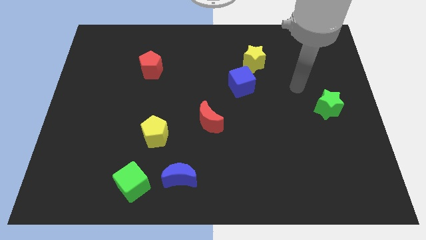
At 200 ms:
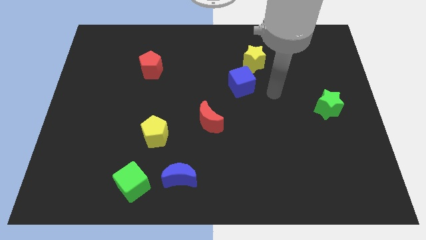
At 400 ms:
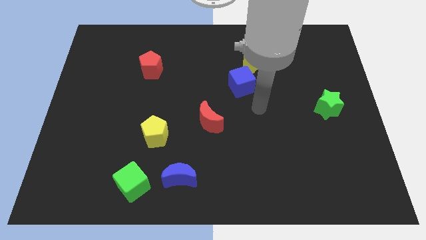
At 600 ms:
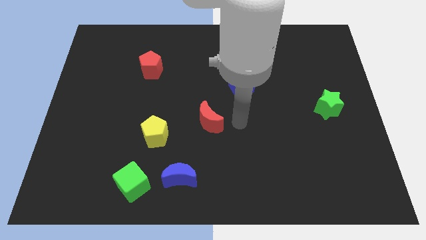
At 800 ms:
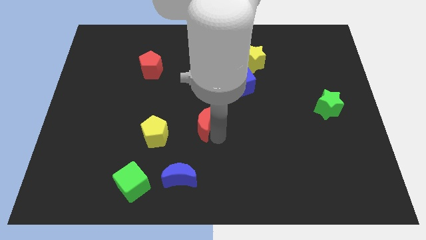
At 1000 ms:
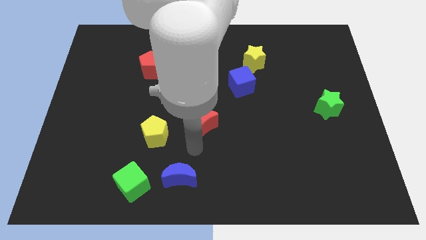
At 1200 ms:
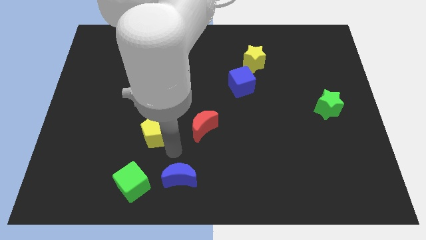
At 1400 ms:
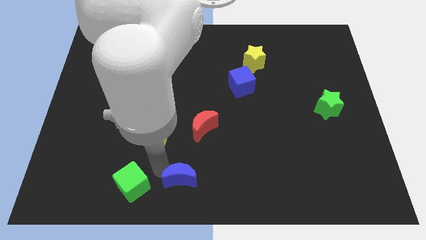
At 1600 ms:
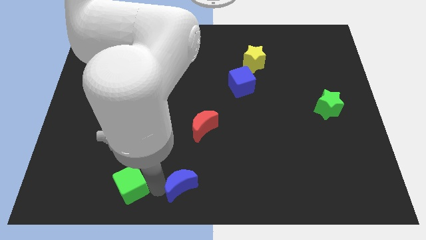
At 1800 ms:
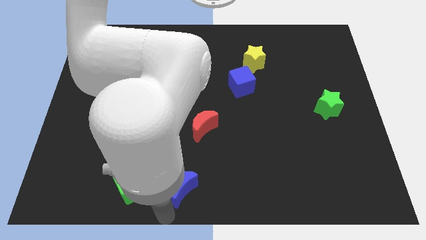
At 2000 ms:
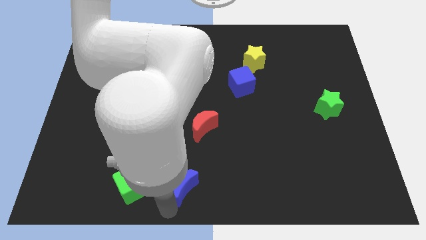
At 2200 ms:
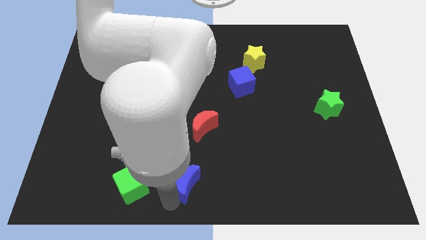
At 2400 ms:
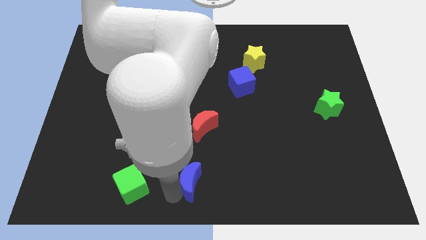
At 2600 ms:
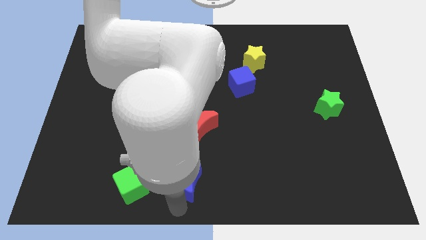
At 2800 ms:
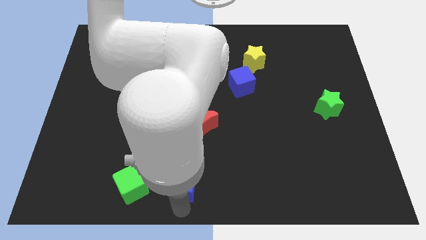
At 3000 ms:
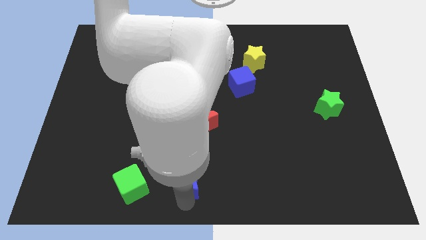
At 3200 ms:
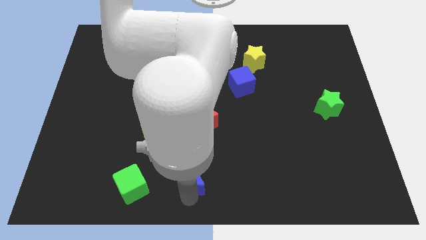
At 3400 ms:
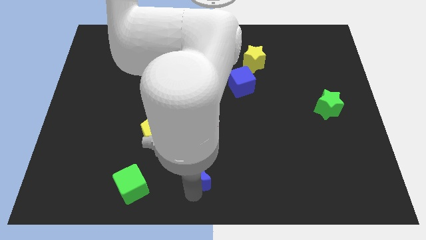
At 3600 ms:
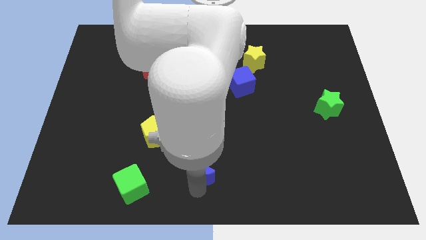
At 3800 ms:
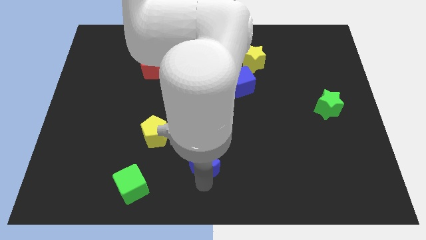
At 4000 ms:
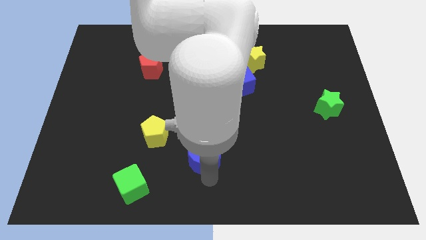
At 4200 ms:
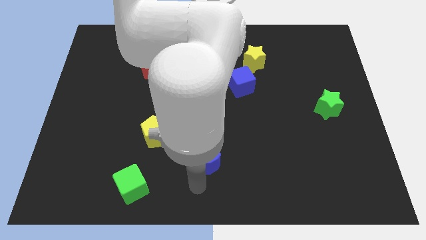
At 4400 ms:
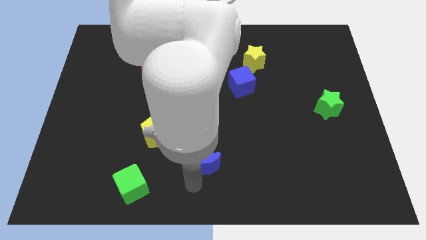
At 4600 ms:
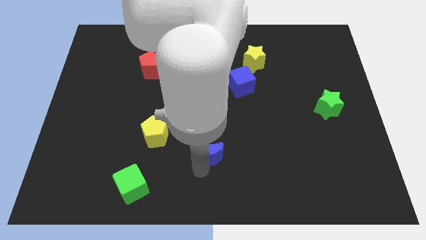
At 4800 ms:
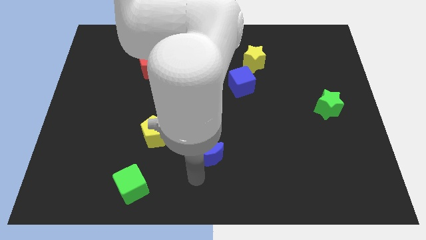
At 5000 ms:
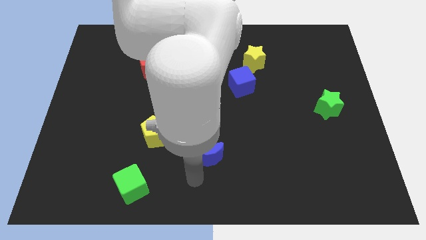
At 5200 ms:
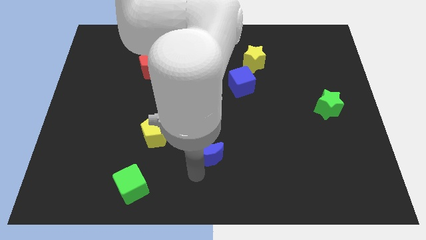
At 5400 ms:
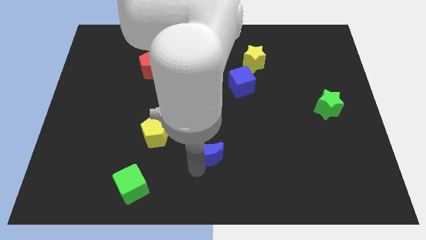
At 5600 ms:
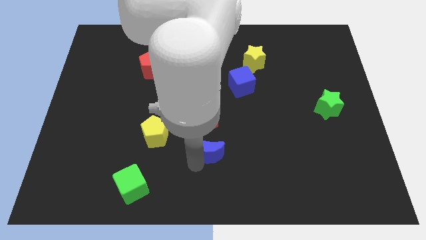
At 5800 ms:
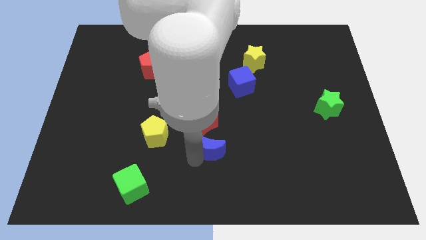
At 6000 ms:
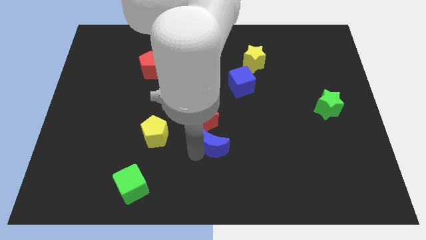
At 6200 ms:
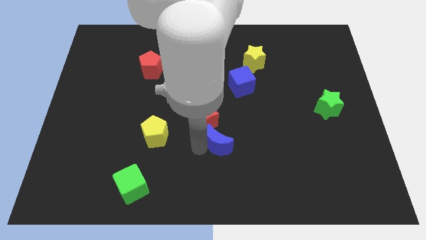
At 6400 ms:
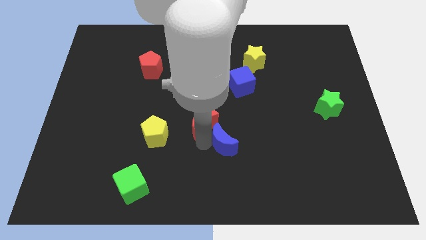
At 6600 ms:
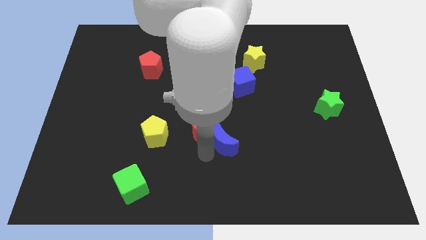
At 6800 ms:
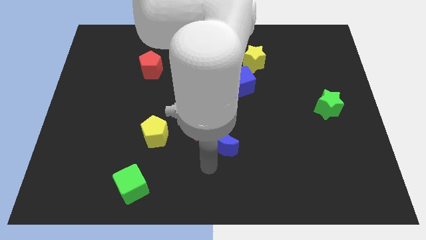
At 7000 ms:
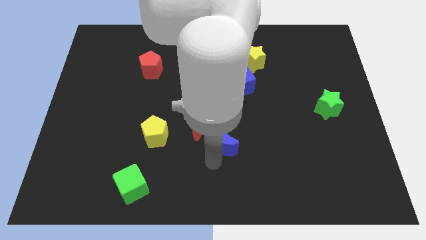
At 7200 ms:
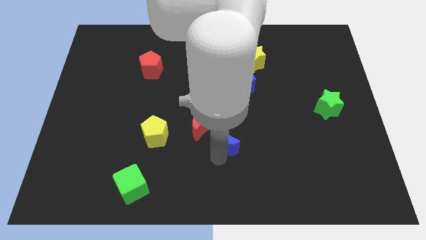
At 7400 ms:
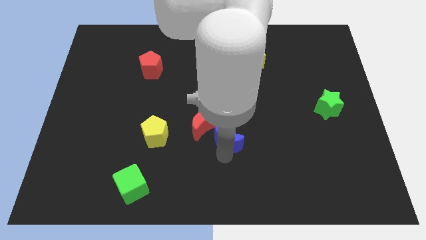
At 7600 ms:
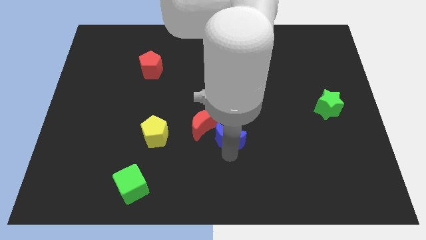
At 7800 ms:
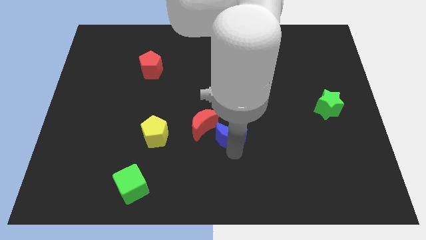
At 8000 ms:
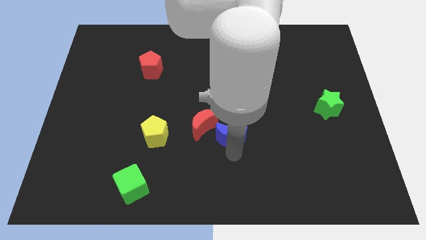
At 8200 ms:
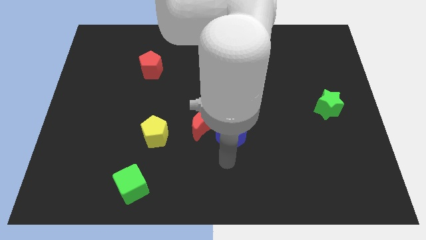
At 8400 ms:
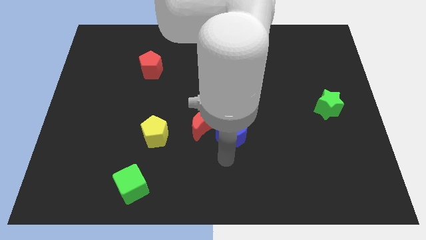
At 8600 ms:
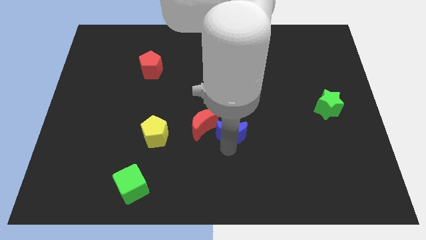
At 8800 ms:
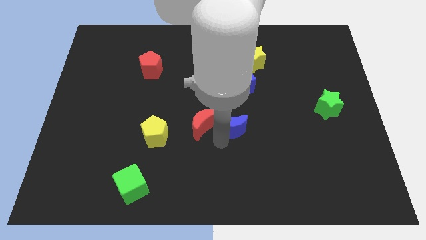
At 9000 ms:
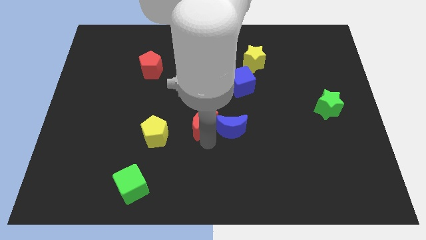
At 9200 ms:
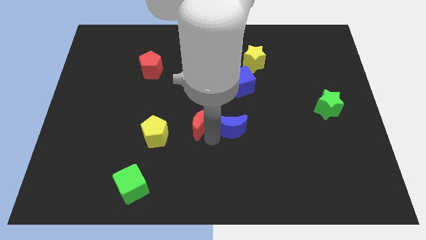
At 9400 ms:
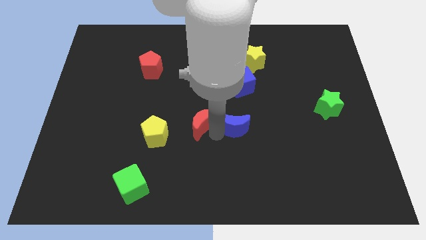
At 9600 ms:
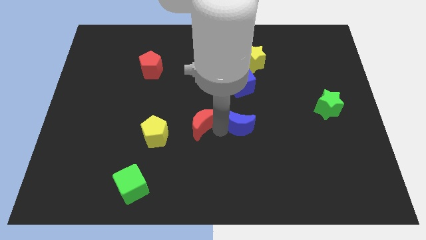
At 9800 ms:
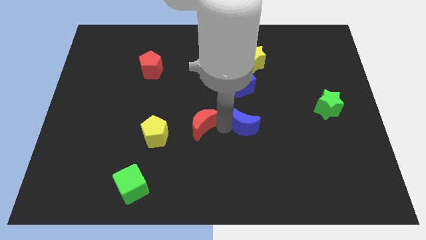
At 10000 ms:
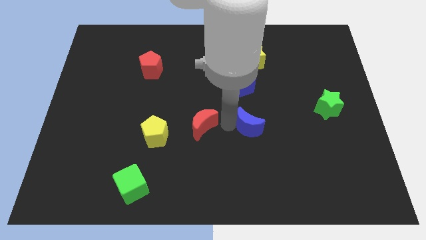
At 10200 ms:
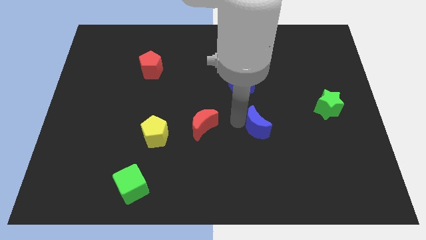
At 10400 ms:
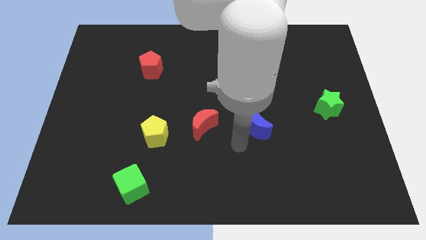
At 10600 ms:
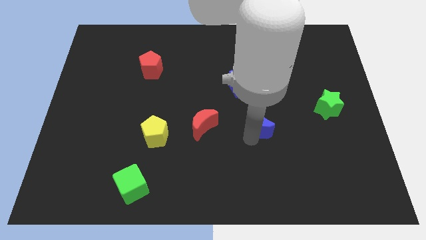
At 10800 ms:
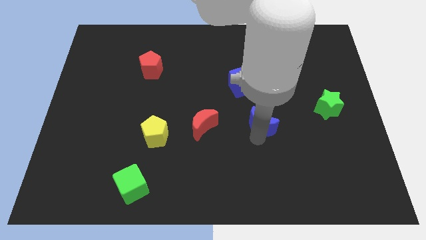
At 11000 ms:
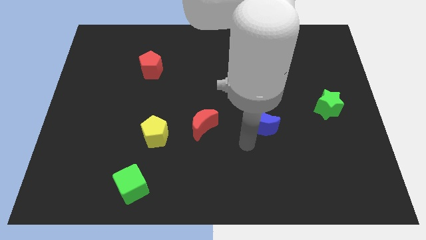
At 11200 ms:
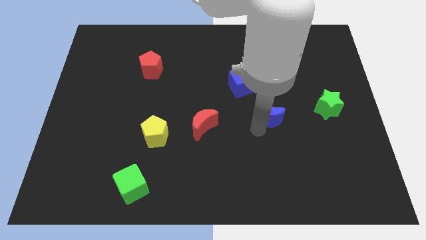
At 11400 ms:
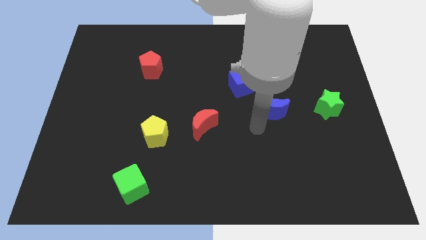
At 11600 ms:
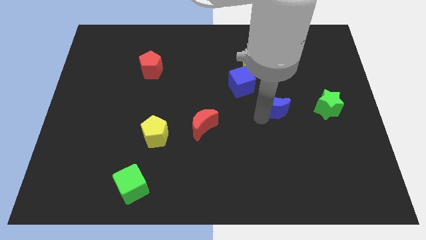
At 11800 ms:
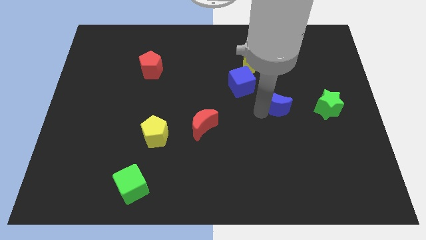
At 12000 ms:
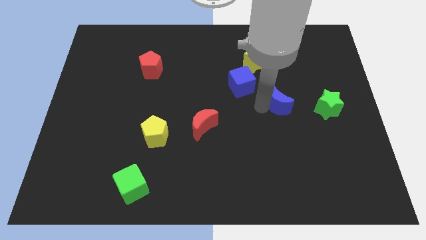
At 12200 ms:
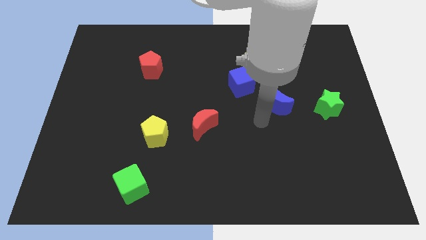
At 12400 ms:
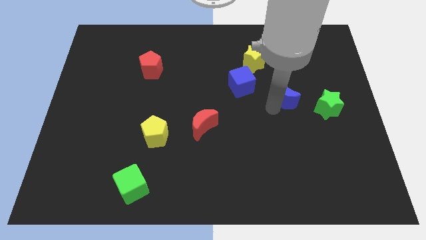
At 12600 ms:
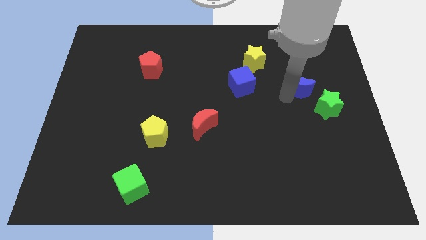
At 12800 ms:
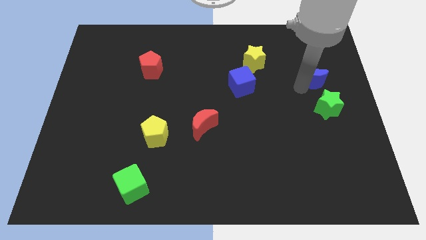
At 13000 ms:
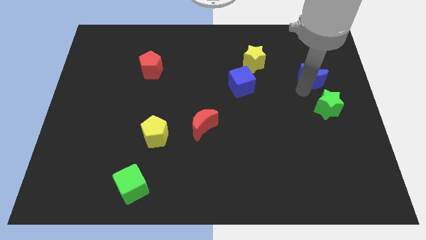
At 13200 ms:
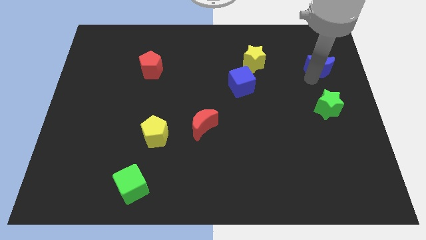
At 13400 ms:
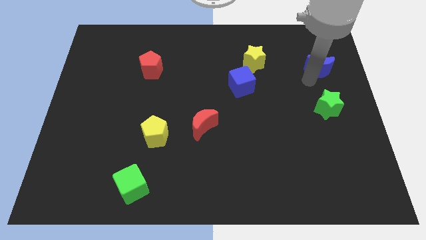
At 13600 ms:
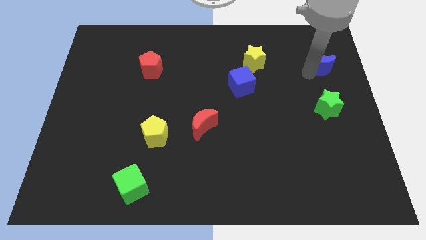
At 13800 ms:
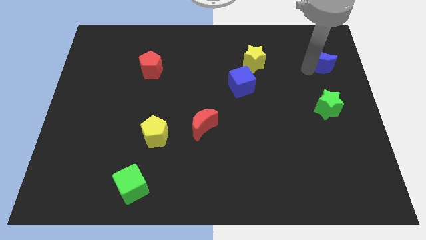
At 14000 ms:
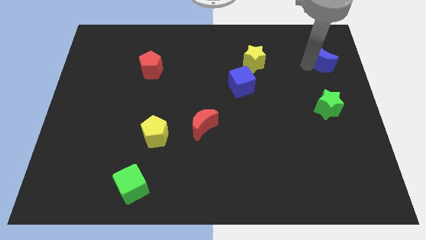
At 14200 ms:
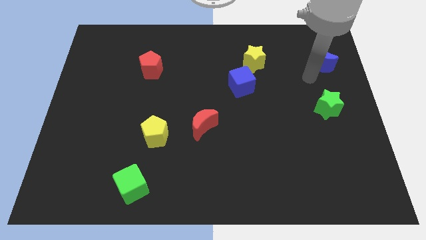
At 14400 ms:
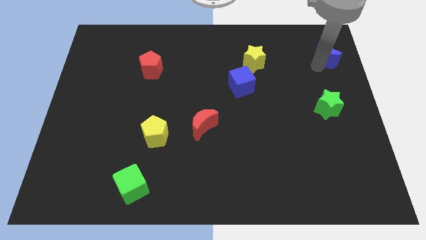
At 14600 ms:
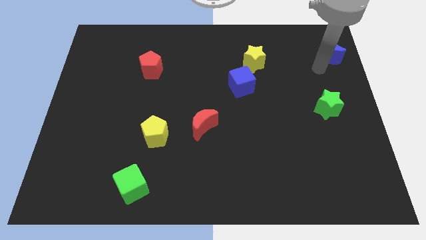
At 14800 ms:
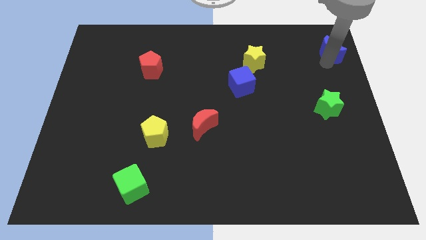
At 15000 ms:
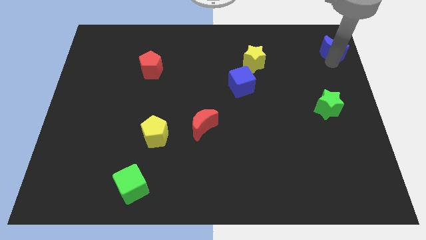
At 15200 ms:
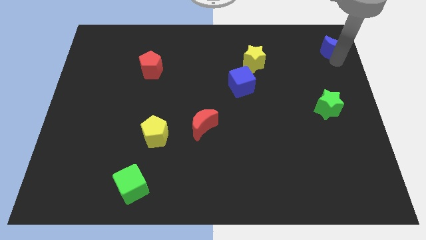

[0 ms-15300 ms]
move the blue moon to the upper right corner
